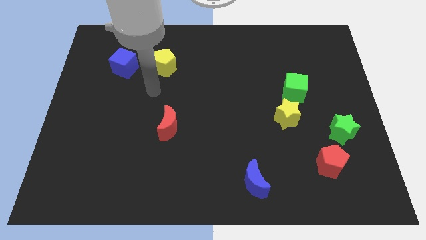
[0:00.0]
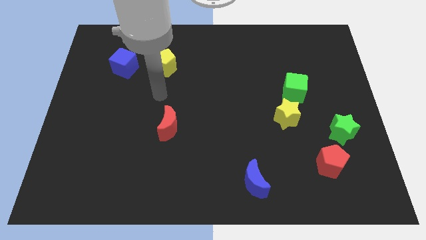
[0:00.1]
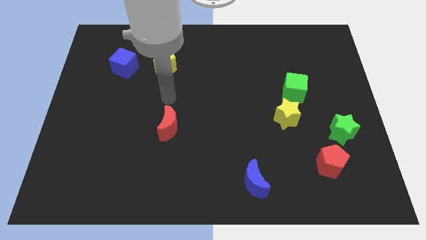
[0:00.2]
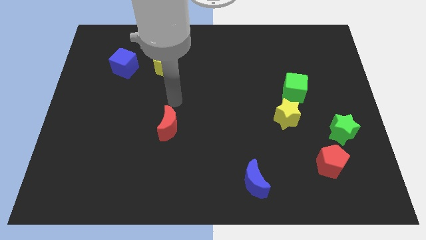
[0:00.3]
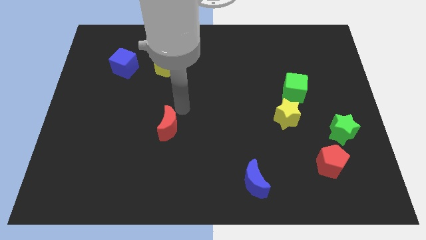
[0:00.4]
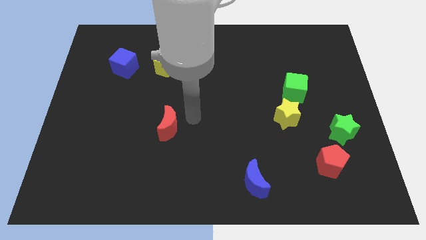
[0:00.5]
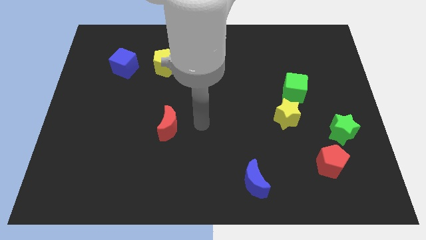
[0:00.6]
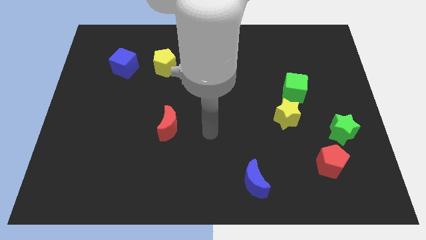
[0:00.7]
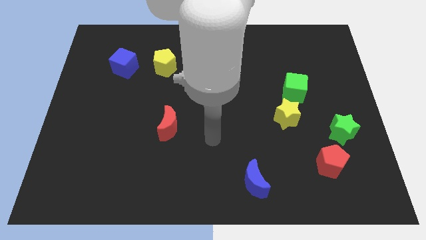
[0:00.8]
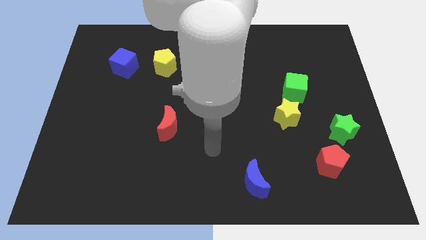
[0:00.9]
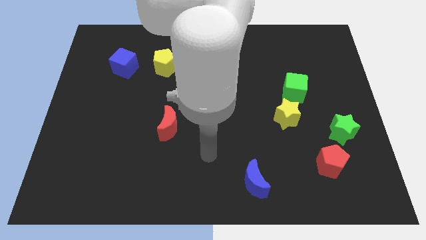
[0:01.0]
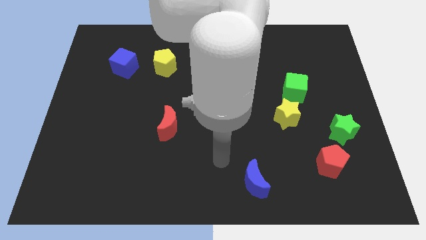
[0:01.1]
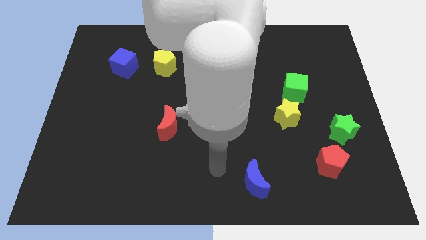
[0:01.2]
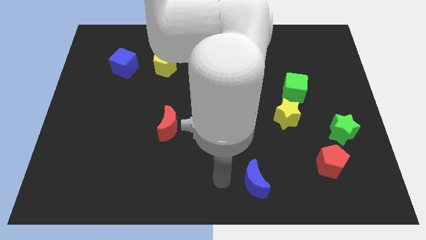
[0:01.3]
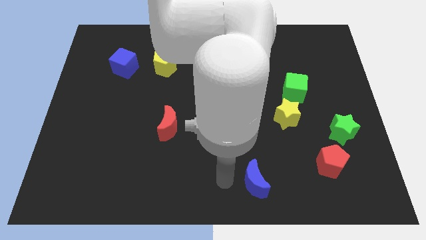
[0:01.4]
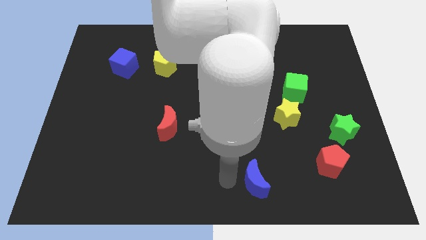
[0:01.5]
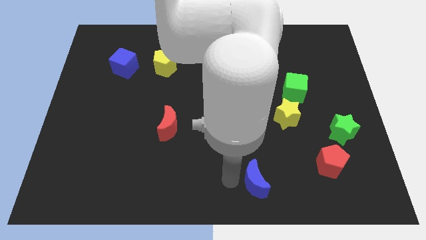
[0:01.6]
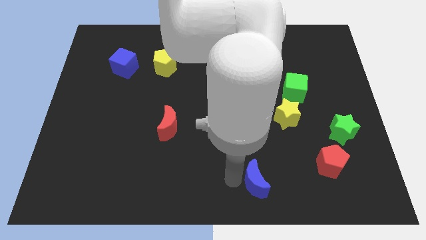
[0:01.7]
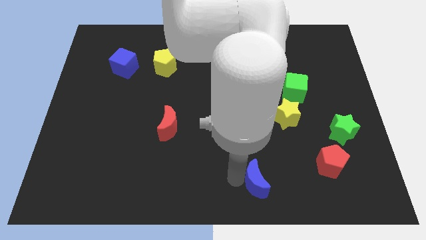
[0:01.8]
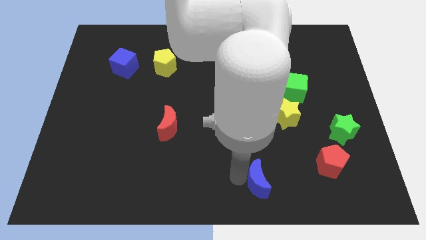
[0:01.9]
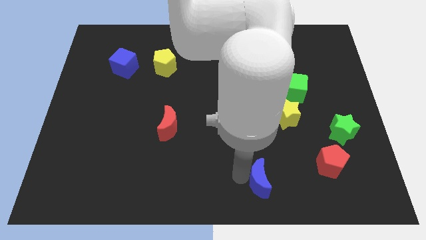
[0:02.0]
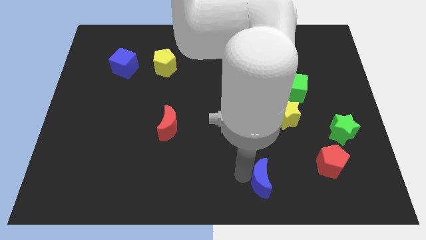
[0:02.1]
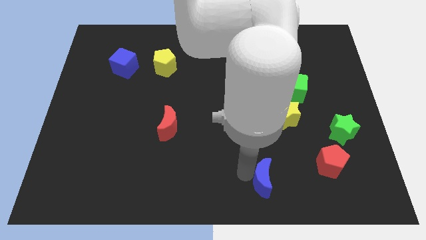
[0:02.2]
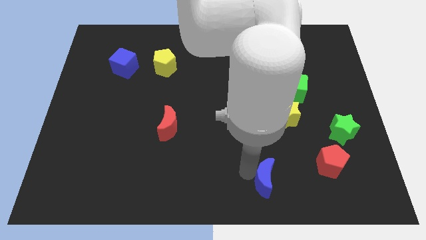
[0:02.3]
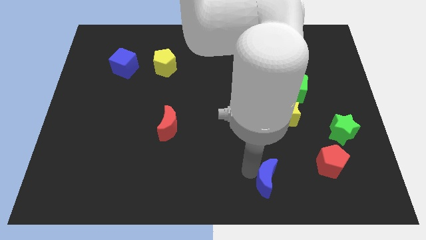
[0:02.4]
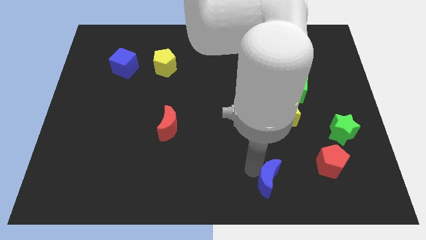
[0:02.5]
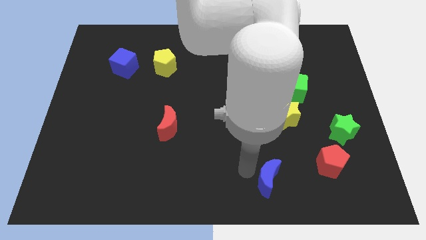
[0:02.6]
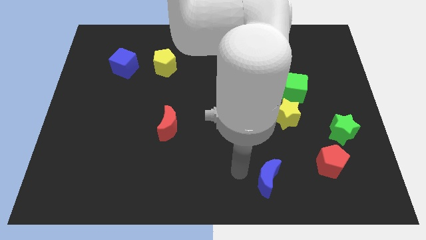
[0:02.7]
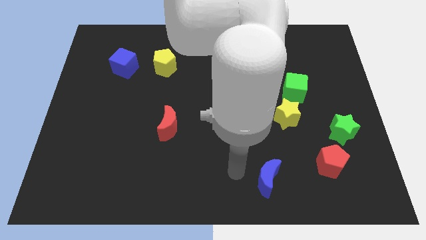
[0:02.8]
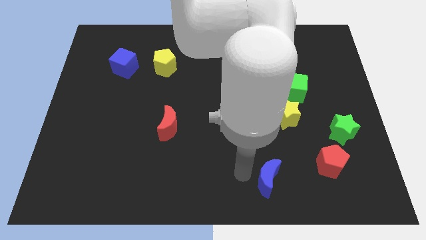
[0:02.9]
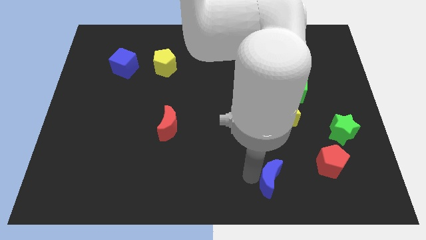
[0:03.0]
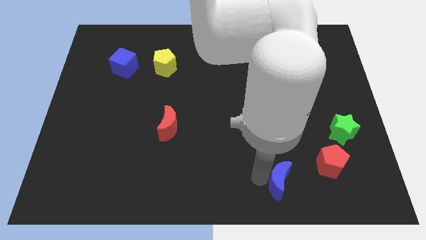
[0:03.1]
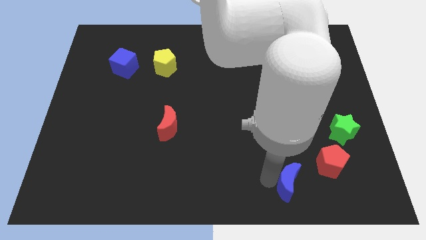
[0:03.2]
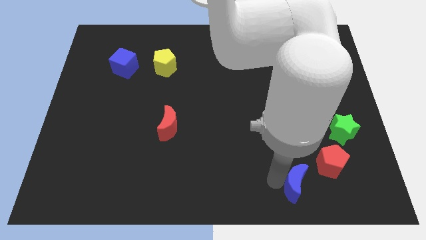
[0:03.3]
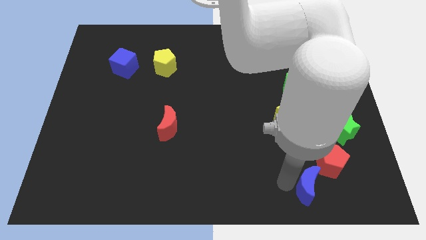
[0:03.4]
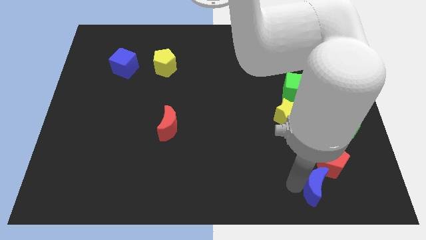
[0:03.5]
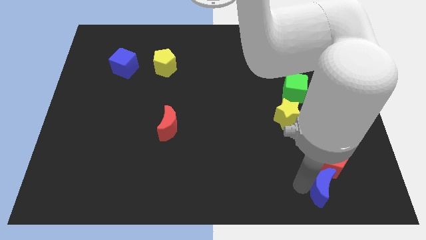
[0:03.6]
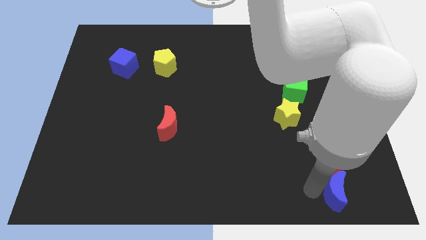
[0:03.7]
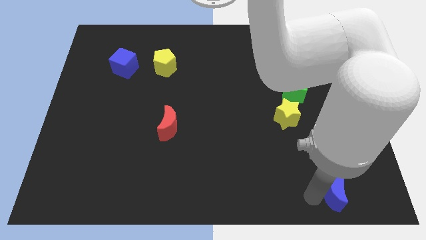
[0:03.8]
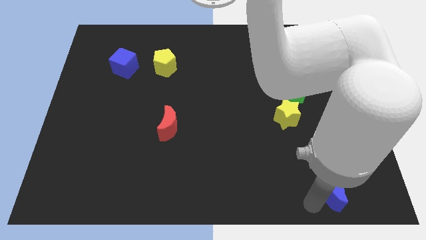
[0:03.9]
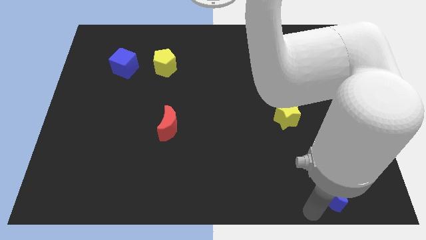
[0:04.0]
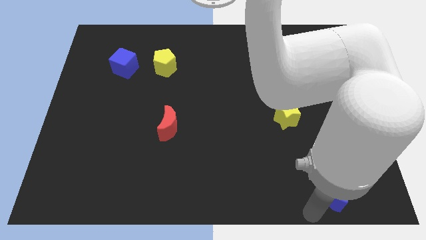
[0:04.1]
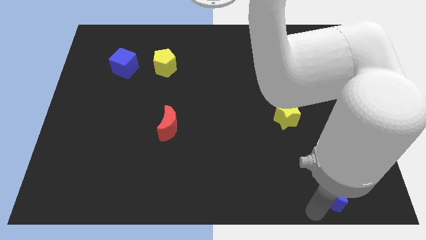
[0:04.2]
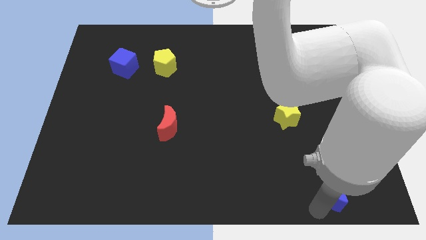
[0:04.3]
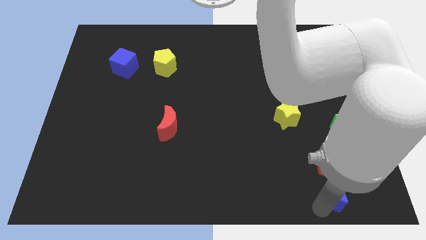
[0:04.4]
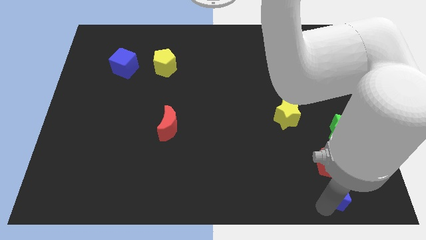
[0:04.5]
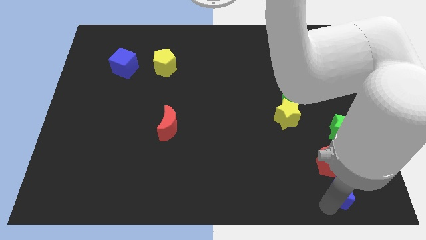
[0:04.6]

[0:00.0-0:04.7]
move the blue moon to the bottom side of the green star

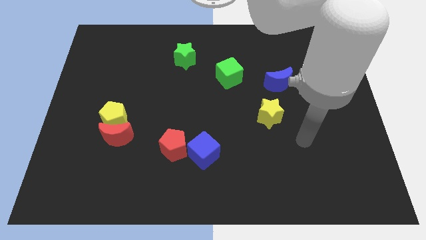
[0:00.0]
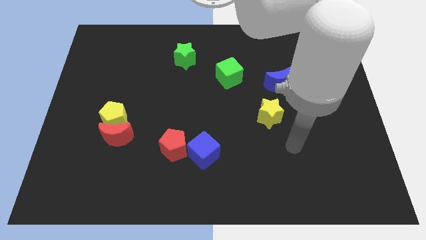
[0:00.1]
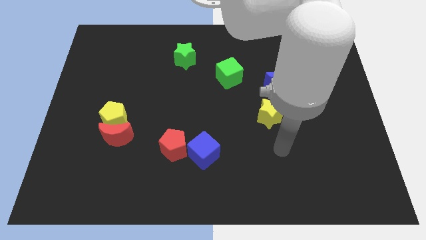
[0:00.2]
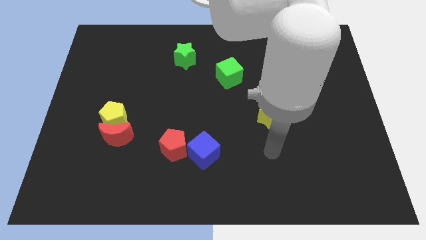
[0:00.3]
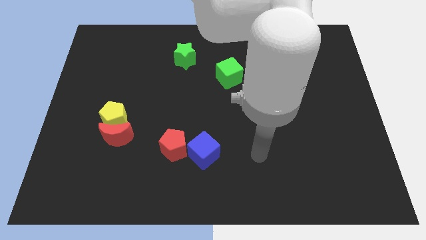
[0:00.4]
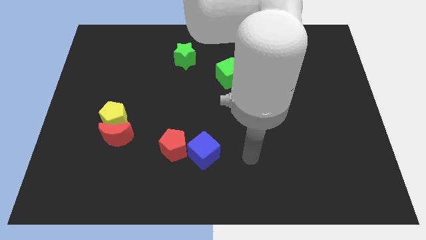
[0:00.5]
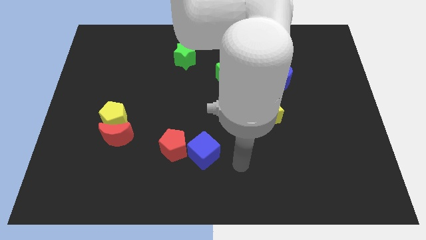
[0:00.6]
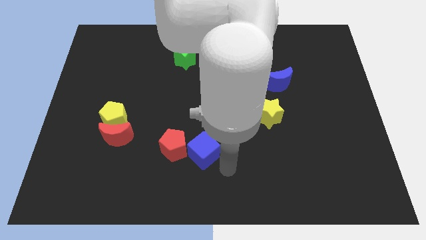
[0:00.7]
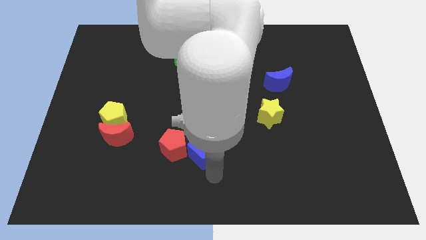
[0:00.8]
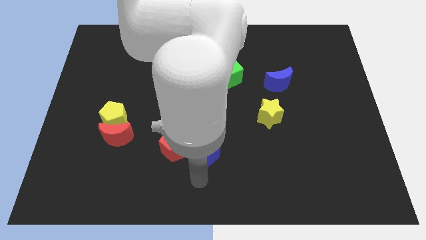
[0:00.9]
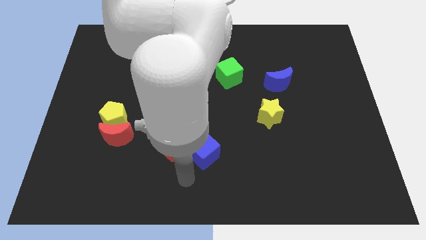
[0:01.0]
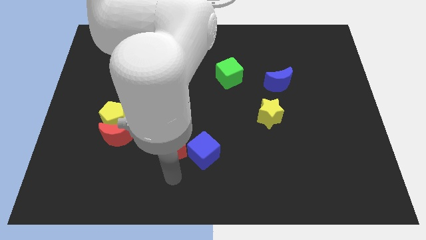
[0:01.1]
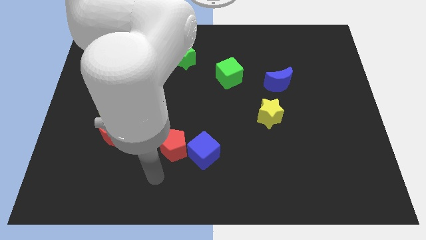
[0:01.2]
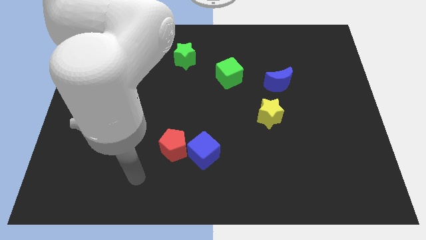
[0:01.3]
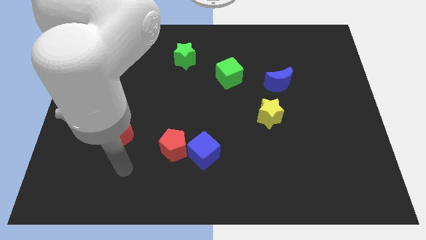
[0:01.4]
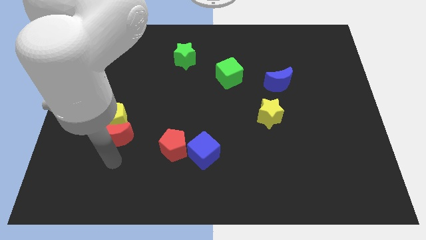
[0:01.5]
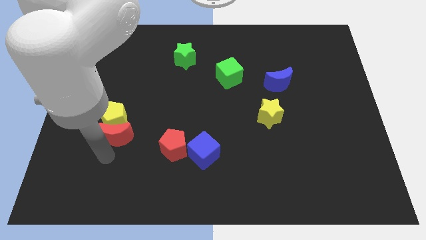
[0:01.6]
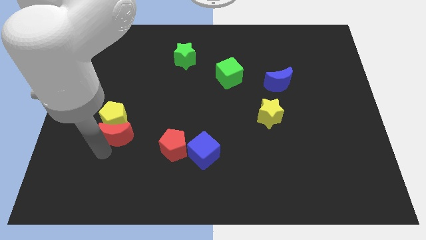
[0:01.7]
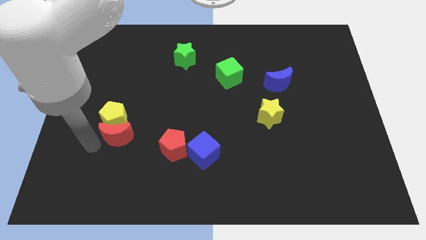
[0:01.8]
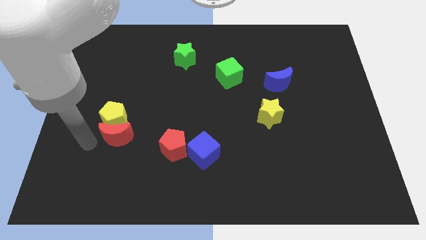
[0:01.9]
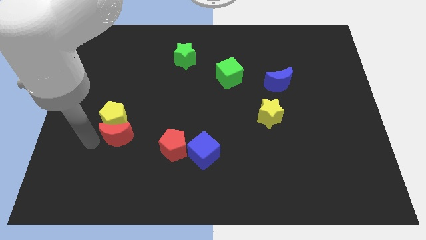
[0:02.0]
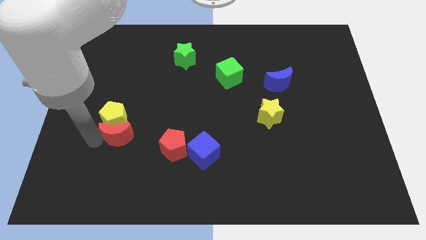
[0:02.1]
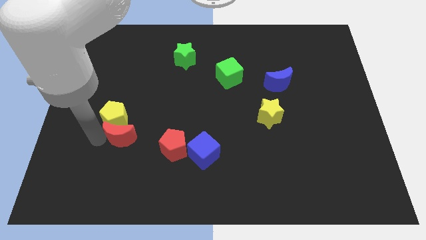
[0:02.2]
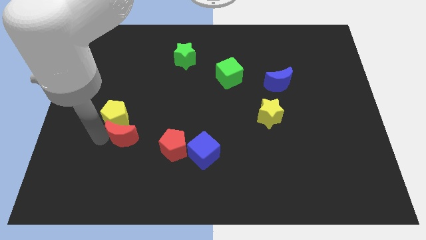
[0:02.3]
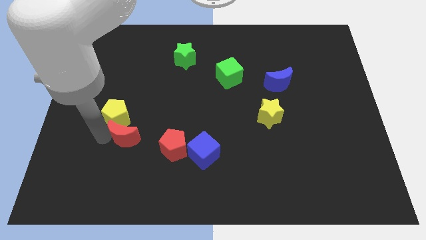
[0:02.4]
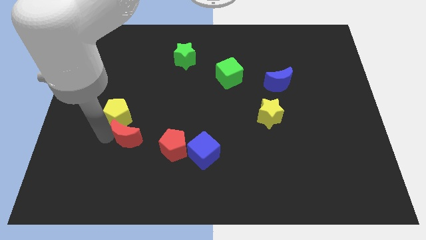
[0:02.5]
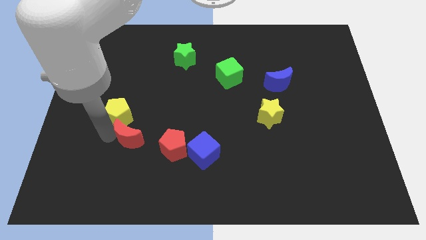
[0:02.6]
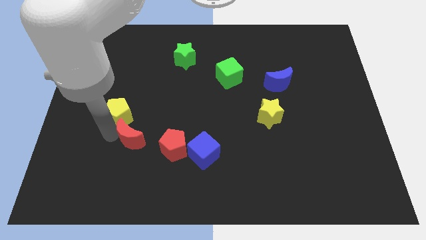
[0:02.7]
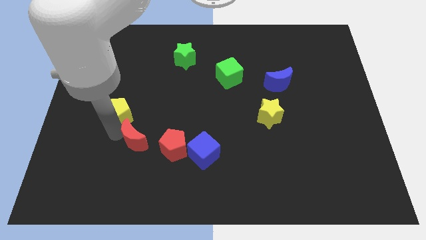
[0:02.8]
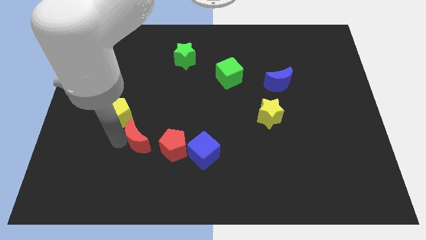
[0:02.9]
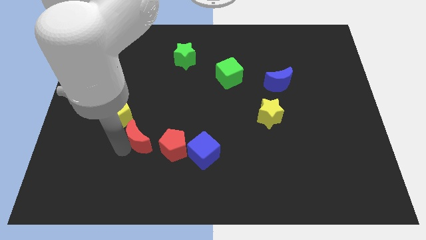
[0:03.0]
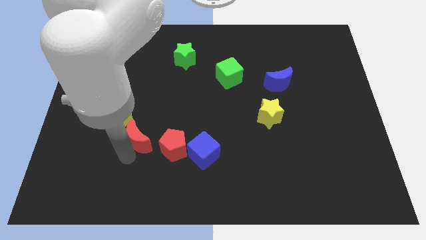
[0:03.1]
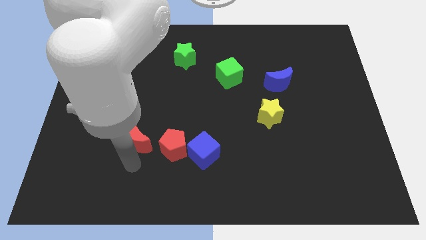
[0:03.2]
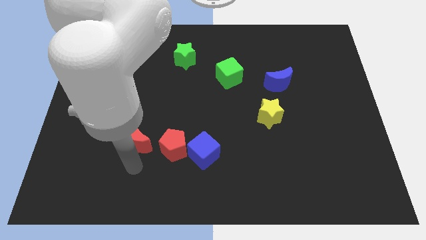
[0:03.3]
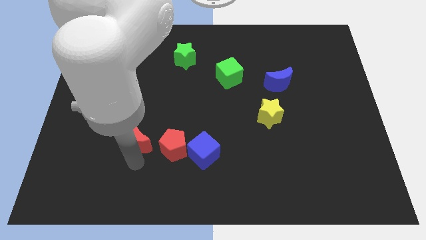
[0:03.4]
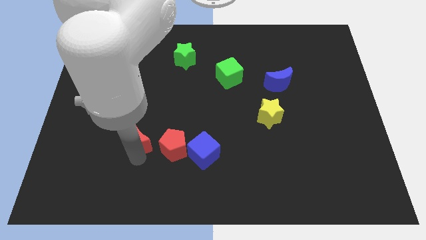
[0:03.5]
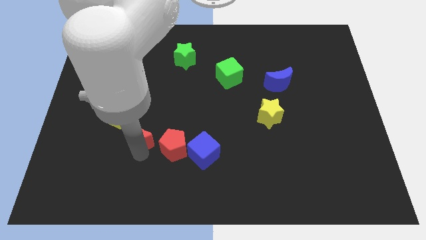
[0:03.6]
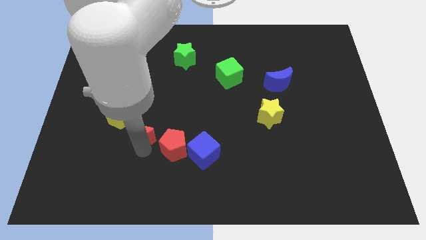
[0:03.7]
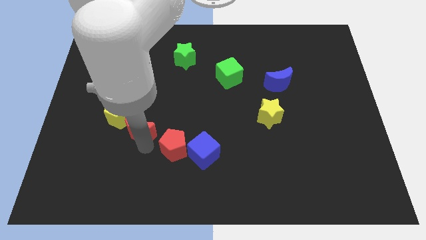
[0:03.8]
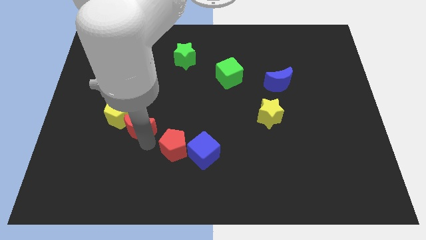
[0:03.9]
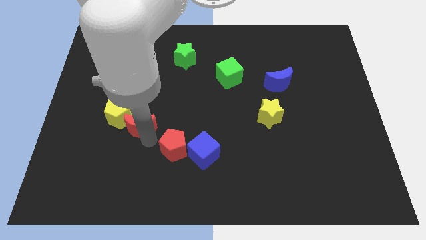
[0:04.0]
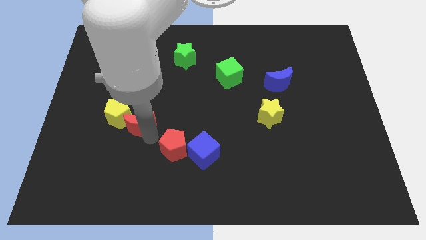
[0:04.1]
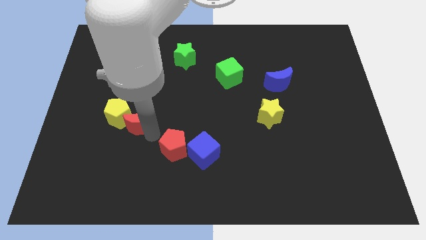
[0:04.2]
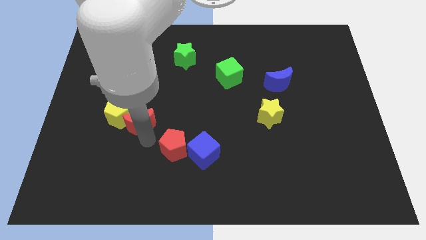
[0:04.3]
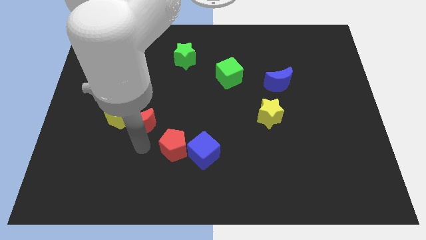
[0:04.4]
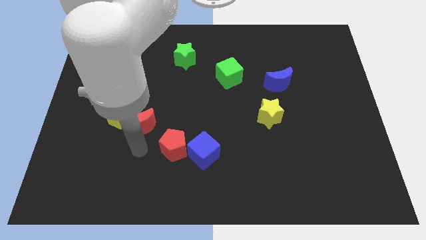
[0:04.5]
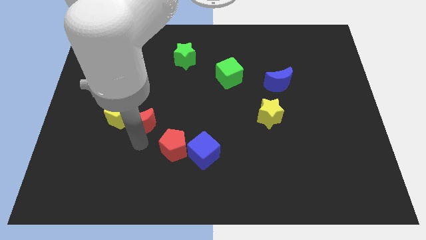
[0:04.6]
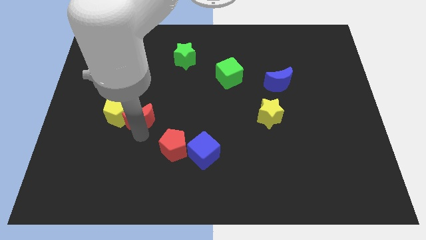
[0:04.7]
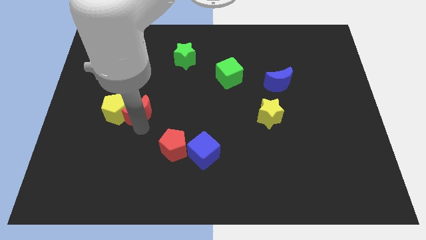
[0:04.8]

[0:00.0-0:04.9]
put the red moon diagonally up and to the right of the yellow pentagon
